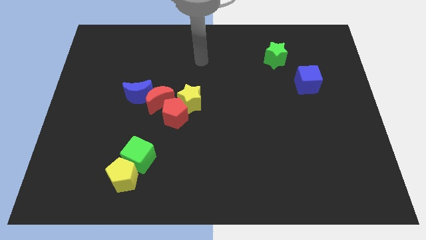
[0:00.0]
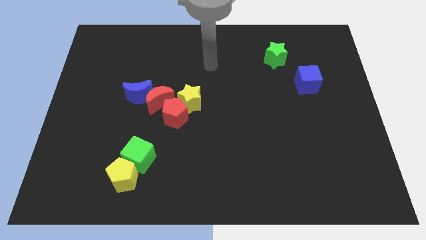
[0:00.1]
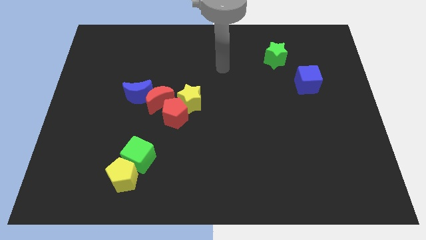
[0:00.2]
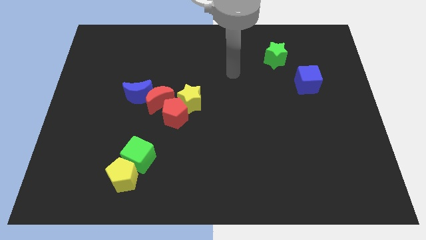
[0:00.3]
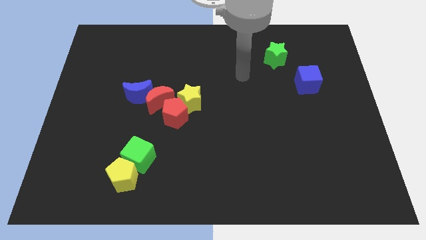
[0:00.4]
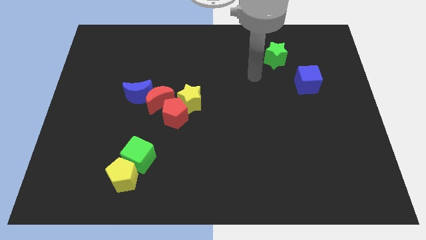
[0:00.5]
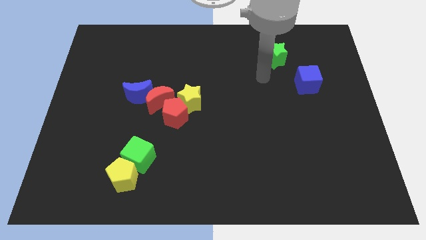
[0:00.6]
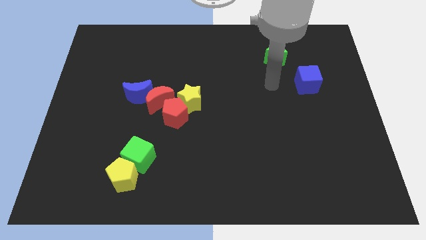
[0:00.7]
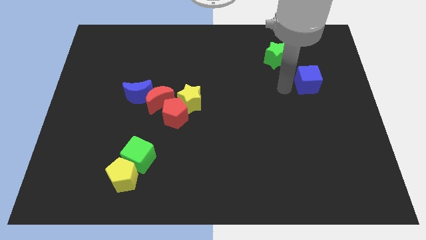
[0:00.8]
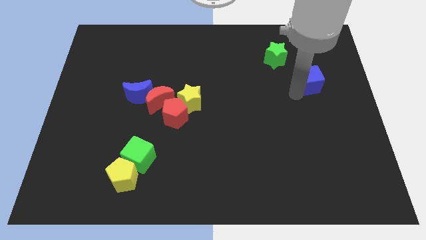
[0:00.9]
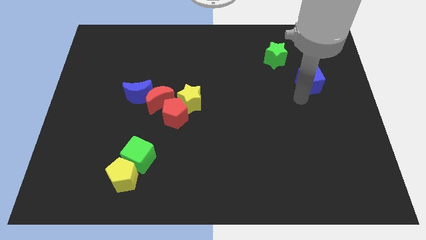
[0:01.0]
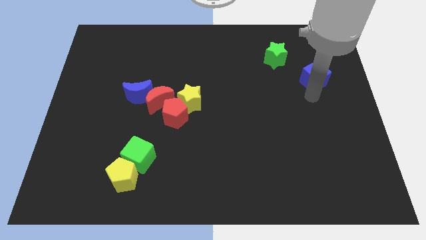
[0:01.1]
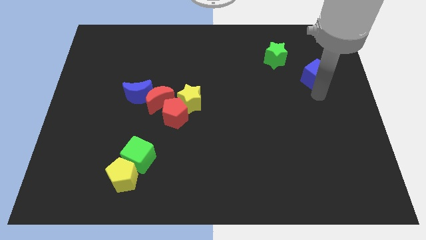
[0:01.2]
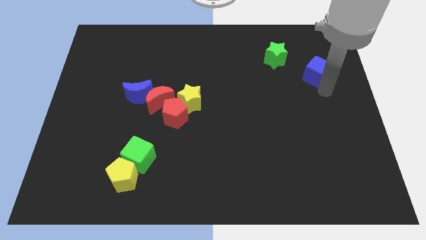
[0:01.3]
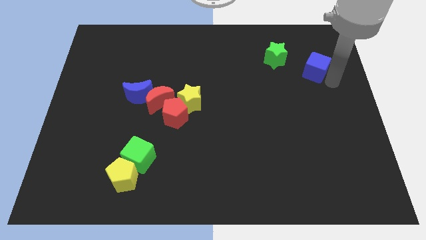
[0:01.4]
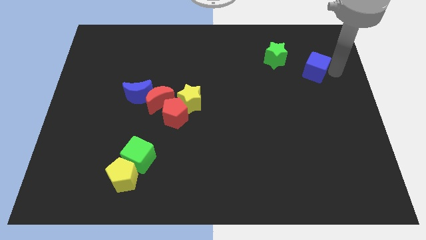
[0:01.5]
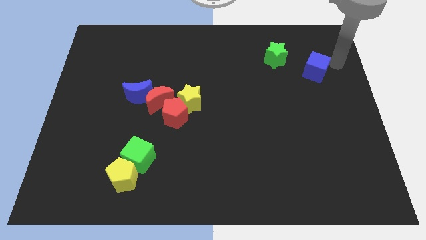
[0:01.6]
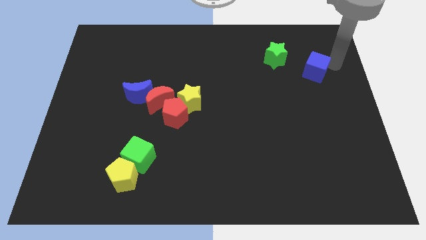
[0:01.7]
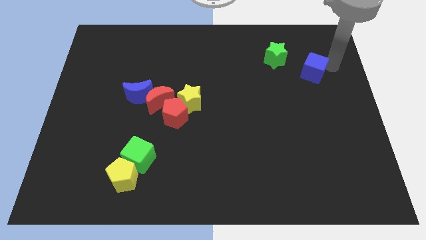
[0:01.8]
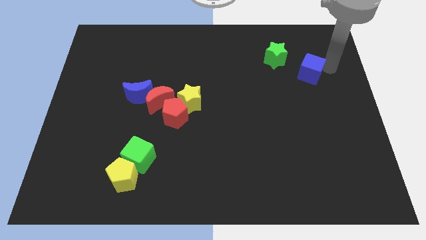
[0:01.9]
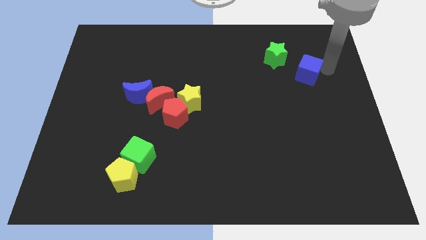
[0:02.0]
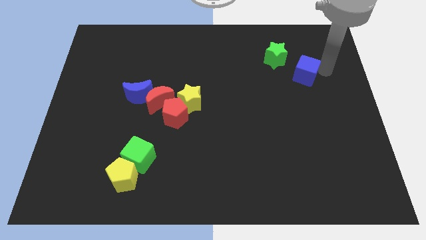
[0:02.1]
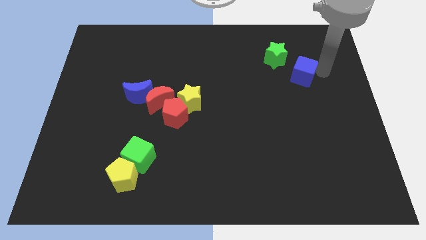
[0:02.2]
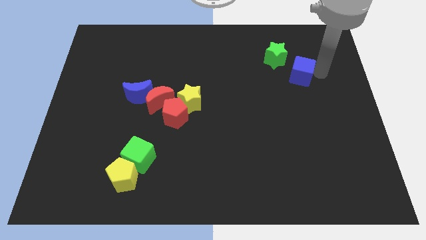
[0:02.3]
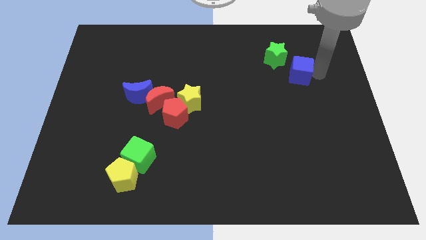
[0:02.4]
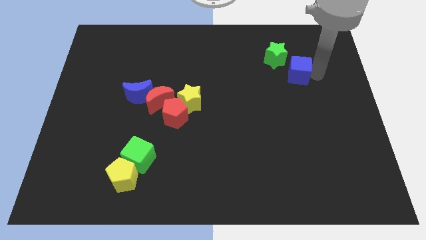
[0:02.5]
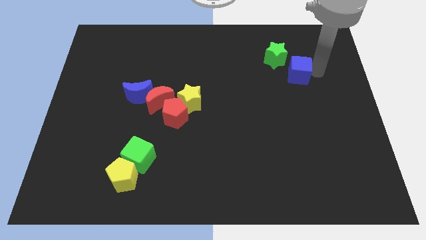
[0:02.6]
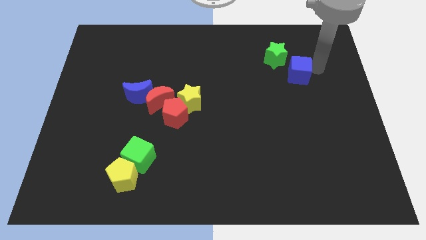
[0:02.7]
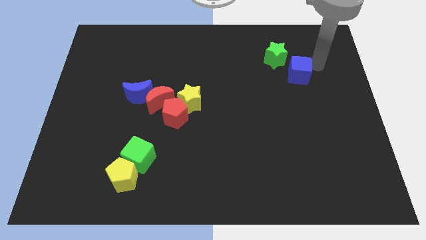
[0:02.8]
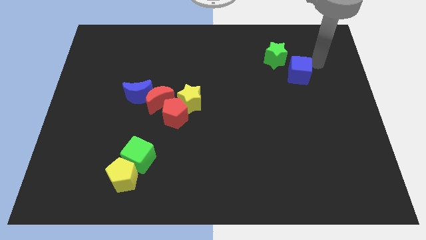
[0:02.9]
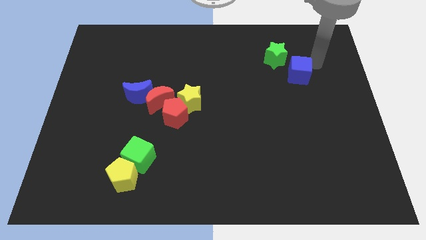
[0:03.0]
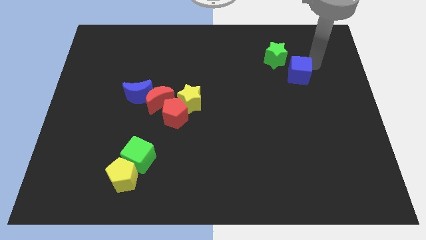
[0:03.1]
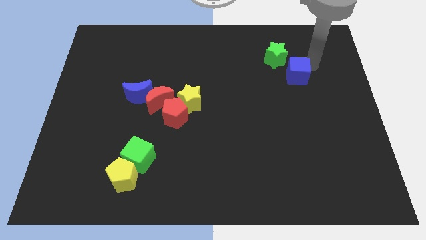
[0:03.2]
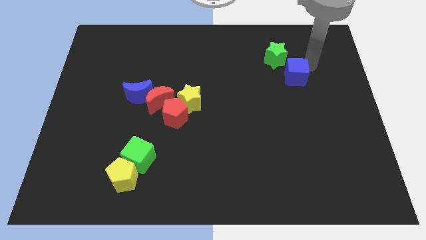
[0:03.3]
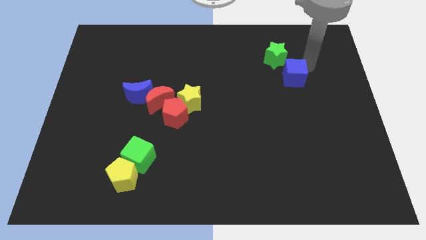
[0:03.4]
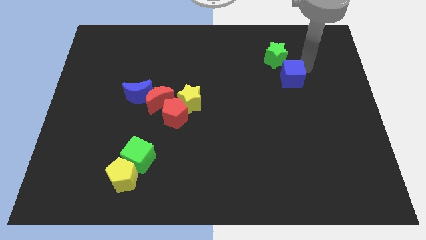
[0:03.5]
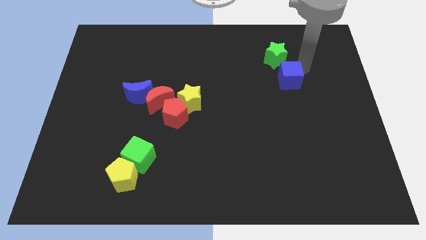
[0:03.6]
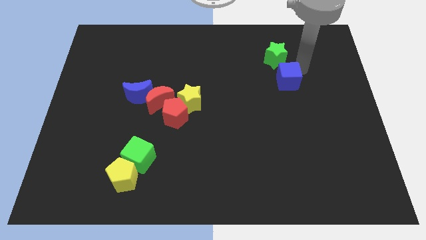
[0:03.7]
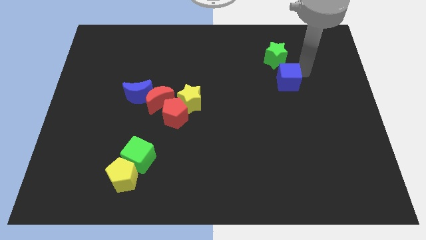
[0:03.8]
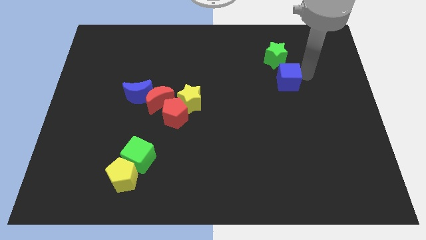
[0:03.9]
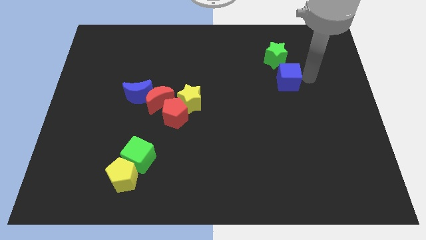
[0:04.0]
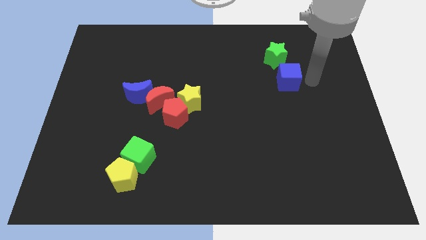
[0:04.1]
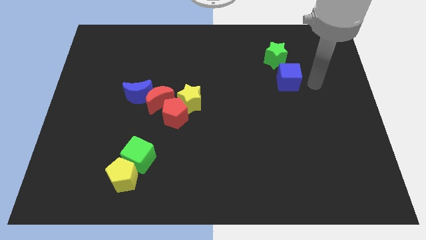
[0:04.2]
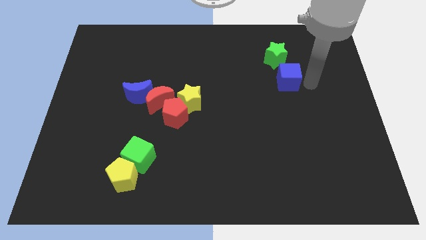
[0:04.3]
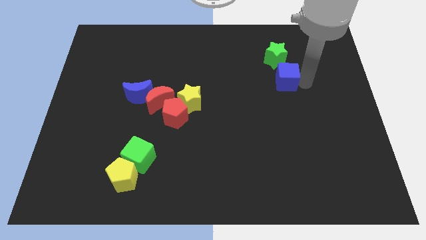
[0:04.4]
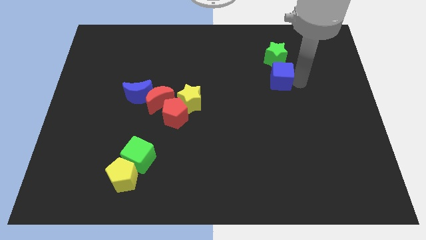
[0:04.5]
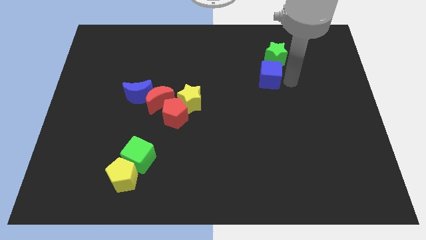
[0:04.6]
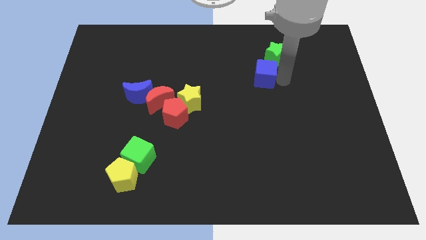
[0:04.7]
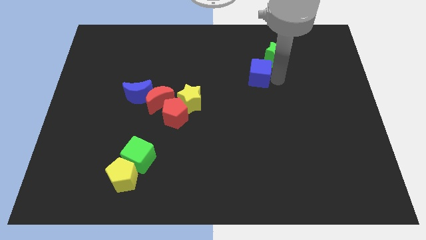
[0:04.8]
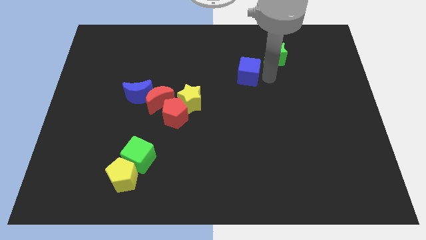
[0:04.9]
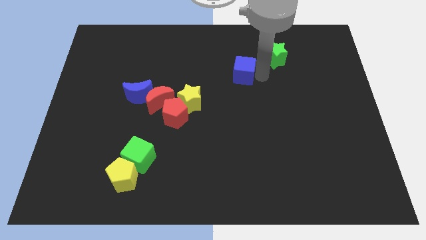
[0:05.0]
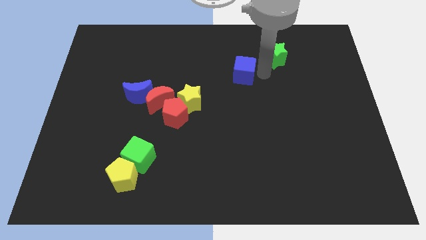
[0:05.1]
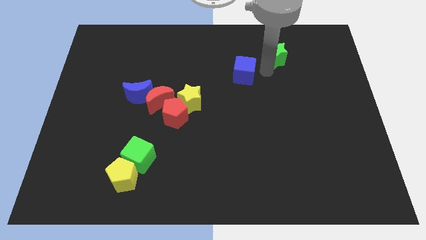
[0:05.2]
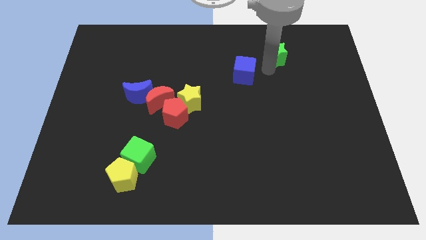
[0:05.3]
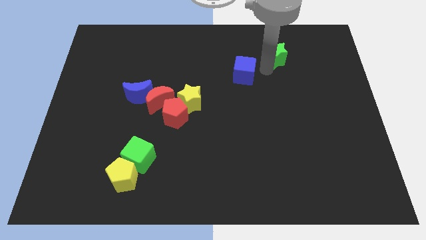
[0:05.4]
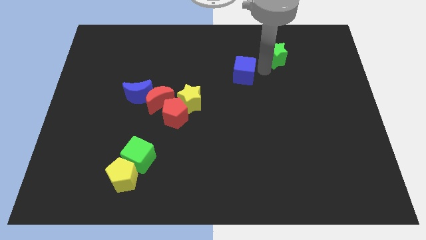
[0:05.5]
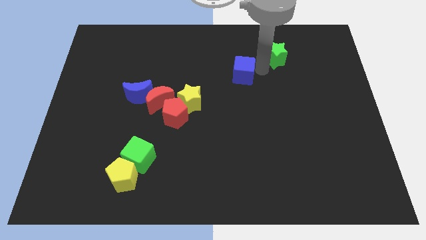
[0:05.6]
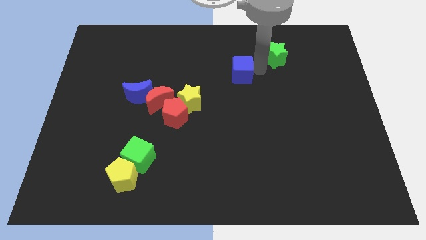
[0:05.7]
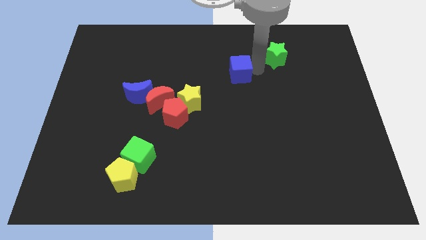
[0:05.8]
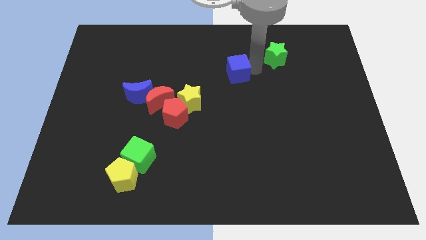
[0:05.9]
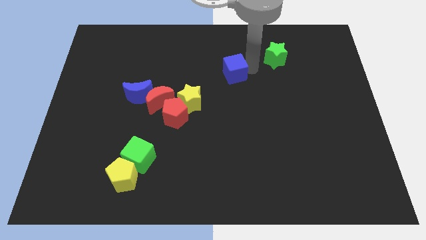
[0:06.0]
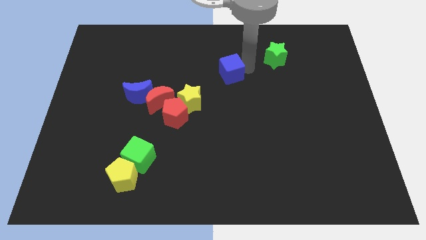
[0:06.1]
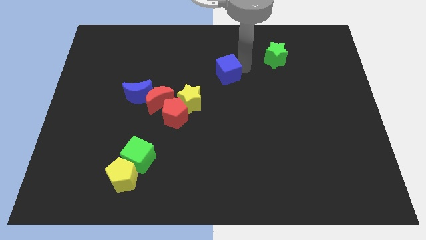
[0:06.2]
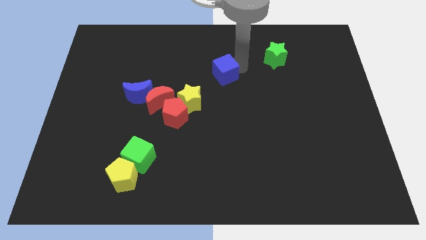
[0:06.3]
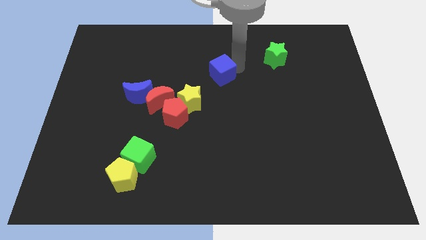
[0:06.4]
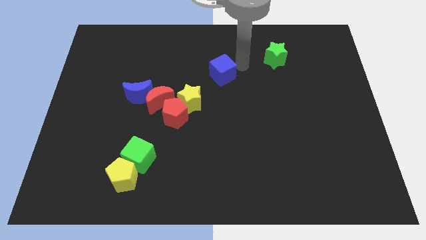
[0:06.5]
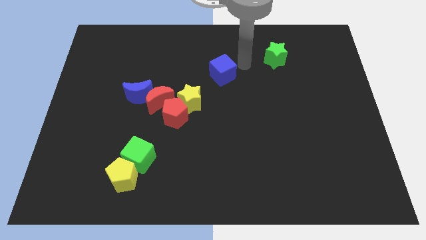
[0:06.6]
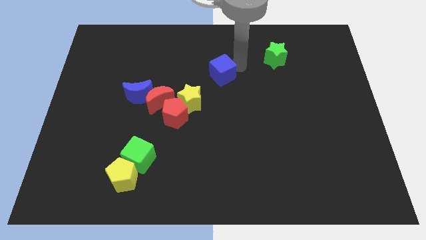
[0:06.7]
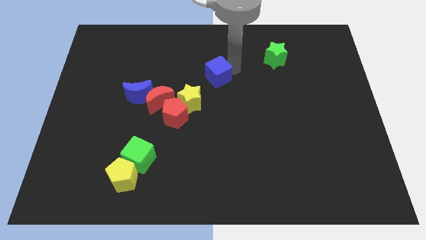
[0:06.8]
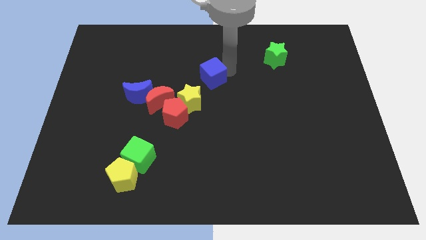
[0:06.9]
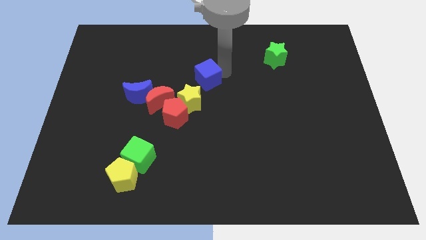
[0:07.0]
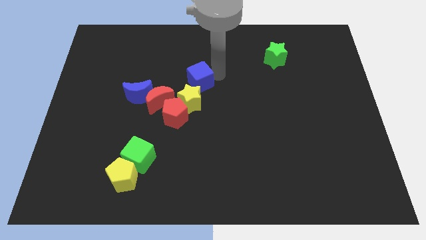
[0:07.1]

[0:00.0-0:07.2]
put the blue cube diagonally up and to the right of the red moon

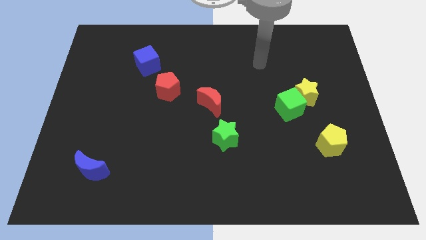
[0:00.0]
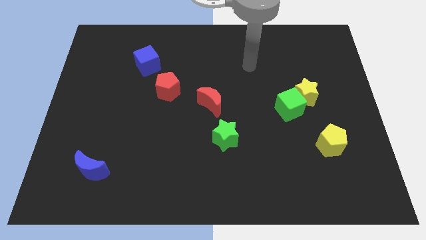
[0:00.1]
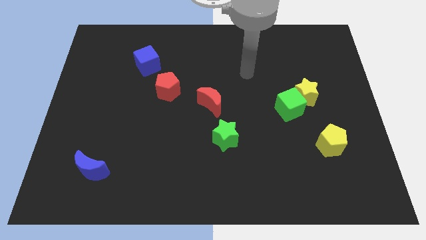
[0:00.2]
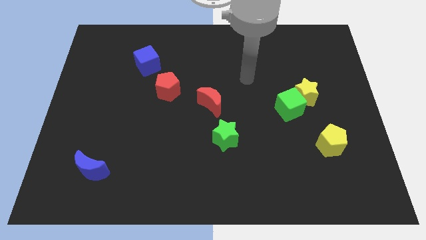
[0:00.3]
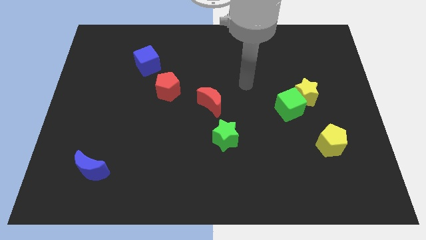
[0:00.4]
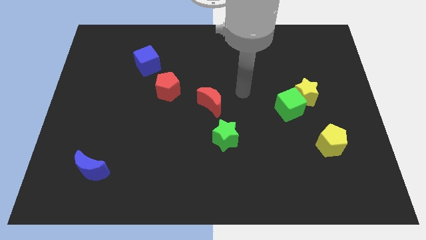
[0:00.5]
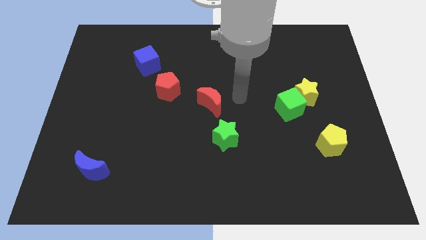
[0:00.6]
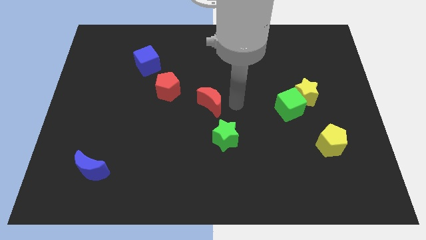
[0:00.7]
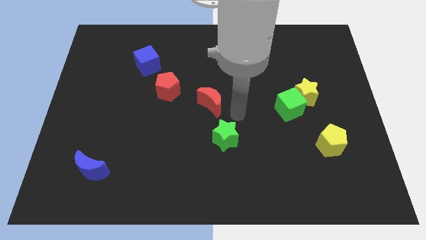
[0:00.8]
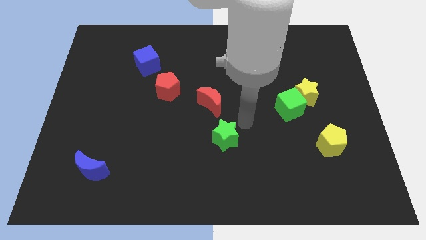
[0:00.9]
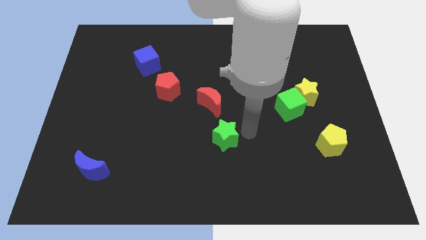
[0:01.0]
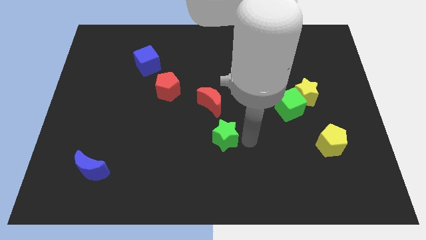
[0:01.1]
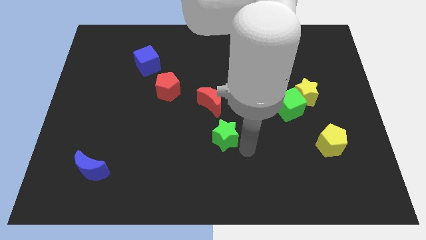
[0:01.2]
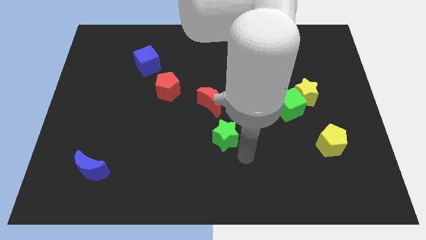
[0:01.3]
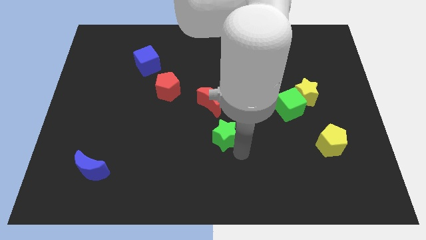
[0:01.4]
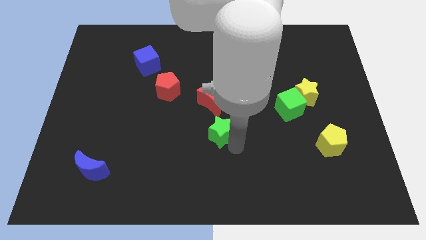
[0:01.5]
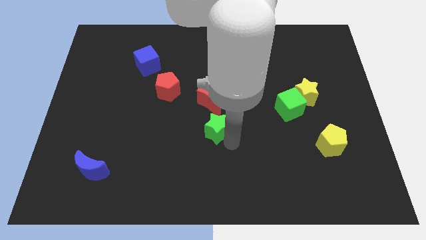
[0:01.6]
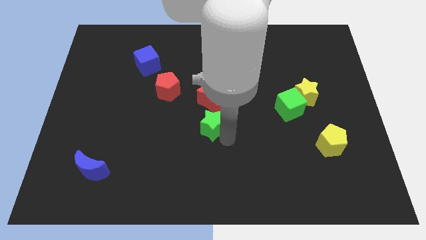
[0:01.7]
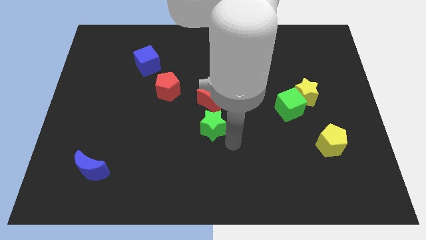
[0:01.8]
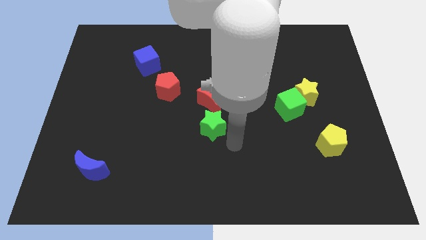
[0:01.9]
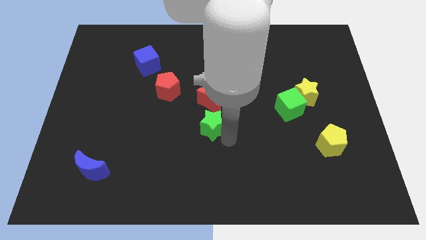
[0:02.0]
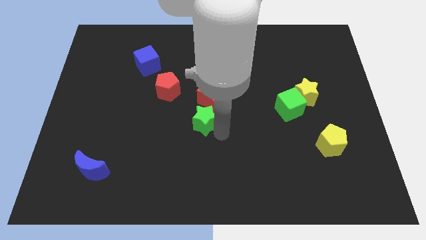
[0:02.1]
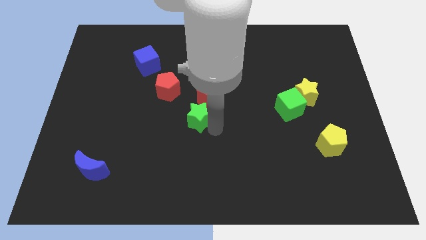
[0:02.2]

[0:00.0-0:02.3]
slide the green star diagonally down and to the right of the red pentagon
